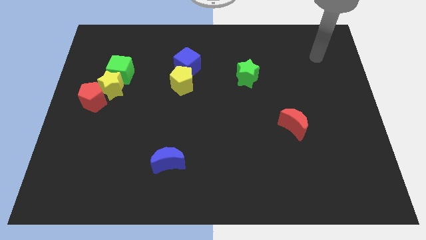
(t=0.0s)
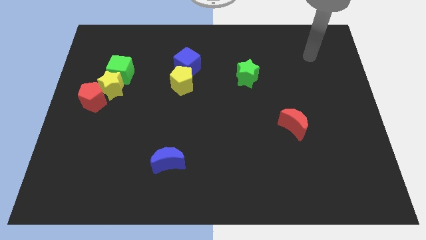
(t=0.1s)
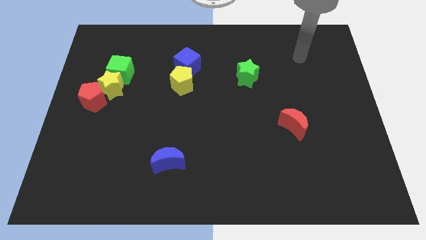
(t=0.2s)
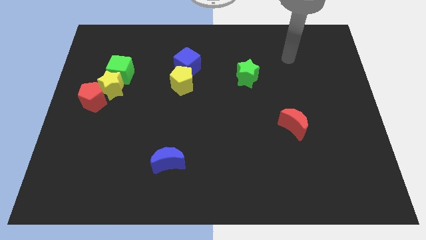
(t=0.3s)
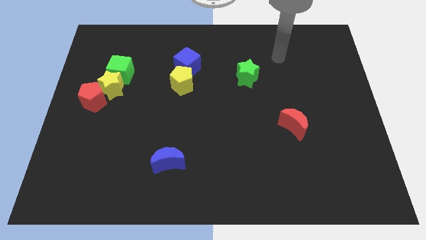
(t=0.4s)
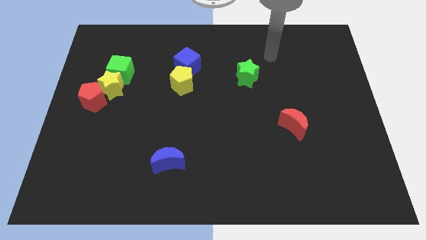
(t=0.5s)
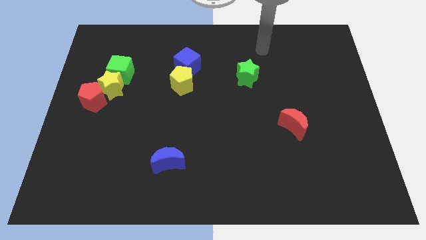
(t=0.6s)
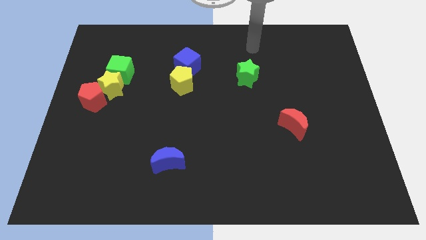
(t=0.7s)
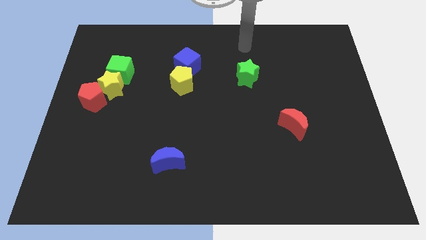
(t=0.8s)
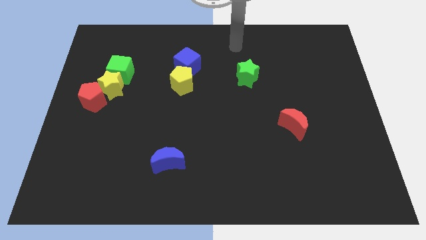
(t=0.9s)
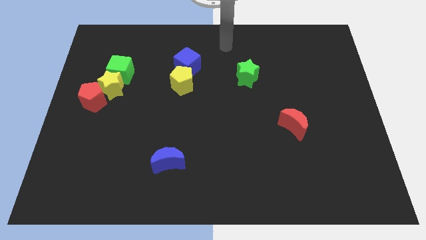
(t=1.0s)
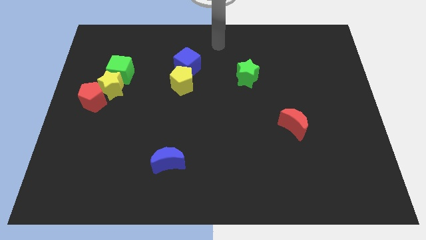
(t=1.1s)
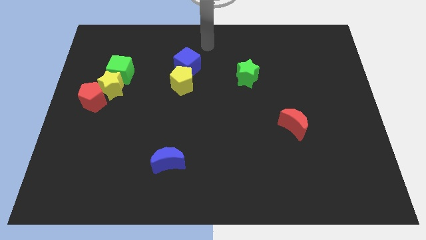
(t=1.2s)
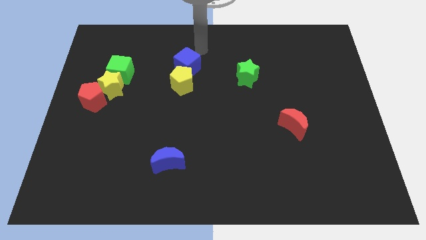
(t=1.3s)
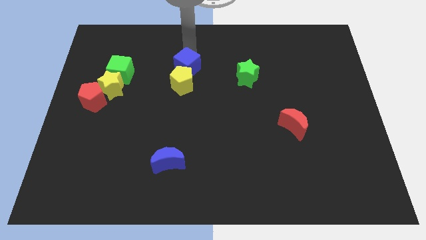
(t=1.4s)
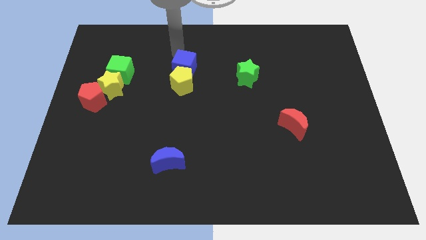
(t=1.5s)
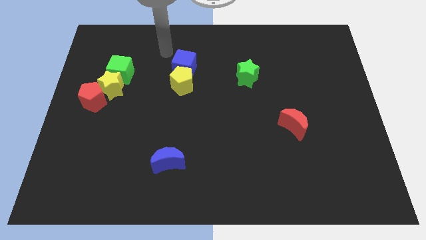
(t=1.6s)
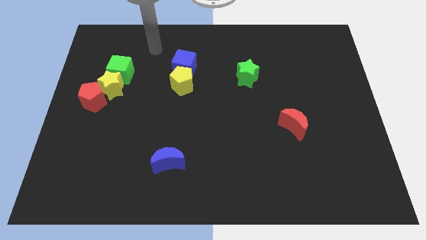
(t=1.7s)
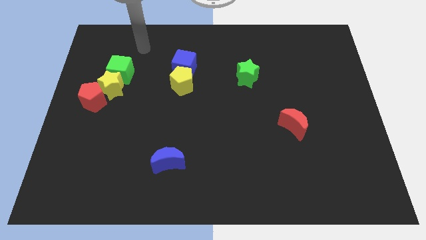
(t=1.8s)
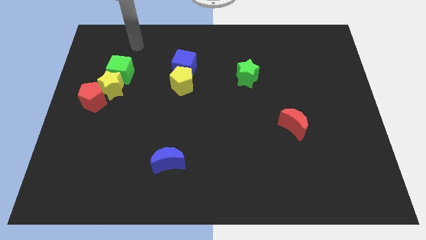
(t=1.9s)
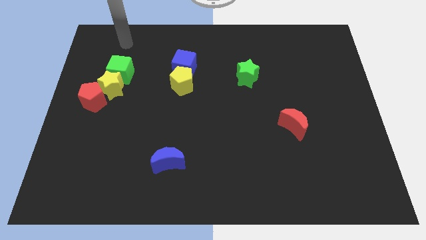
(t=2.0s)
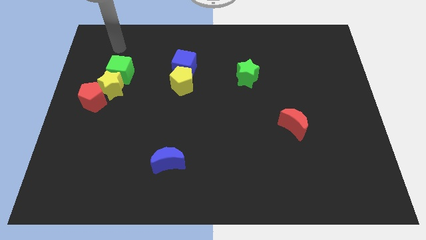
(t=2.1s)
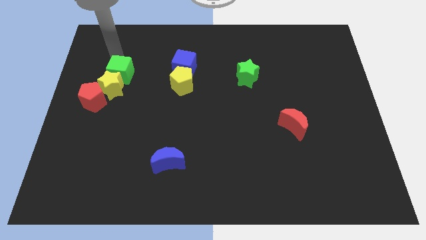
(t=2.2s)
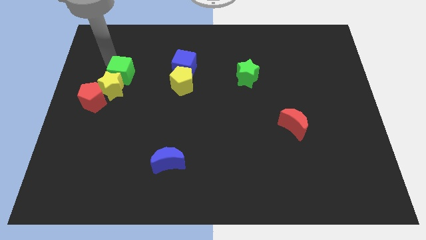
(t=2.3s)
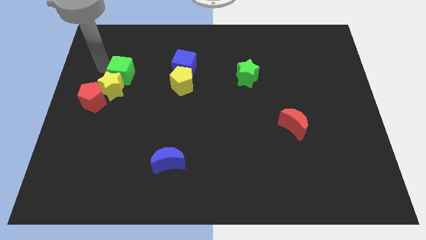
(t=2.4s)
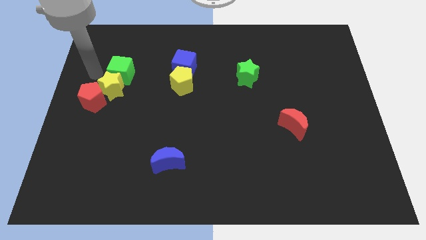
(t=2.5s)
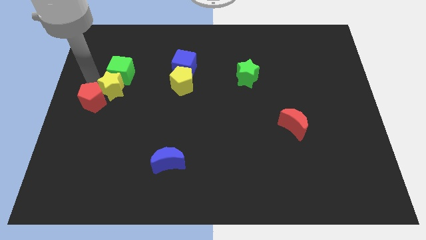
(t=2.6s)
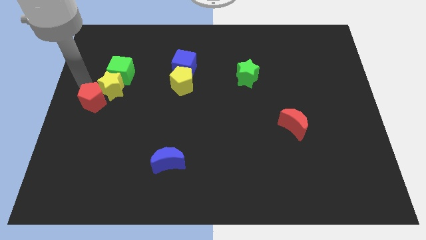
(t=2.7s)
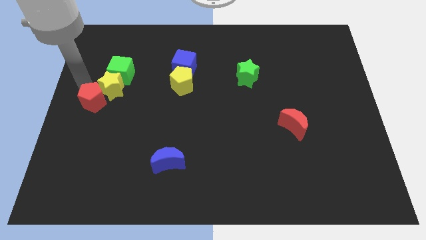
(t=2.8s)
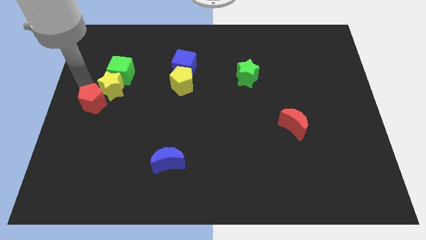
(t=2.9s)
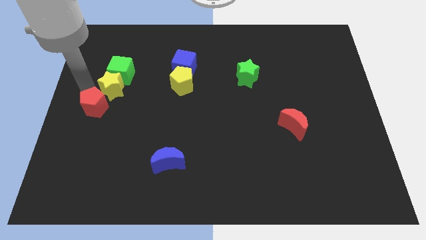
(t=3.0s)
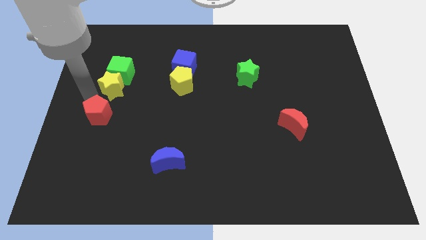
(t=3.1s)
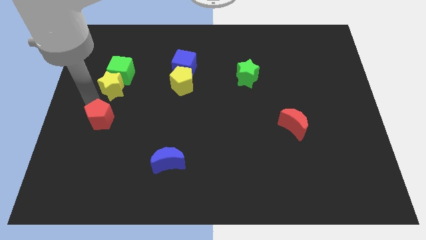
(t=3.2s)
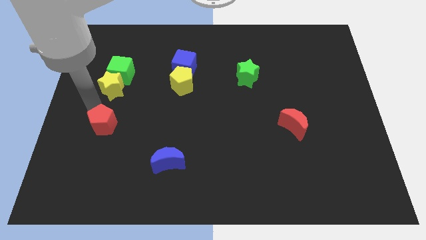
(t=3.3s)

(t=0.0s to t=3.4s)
slightly slide the red pentagon downwards and then right

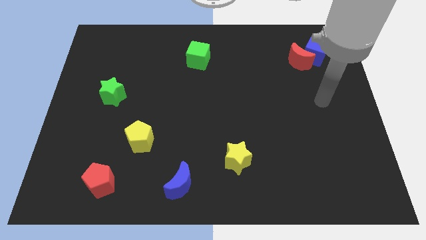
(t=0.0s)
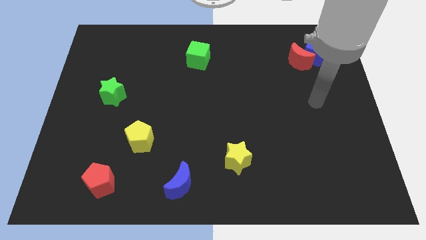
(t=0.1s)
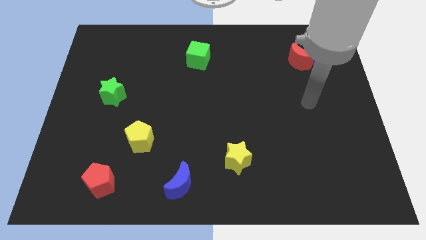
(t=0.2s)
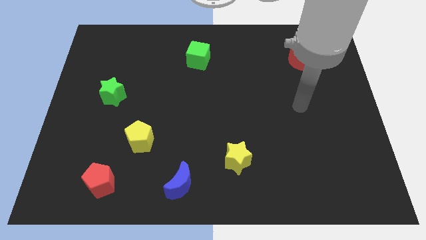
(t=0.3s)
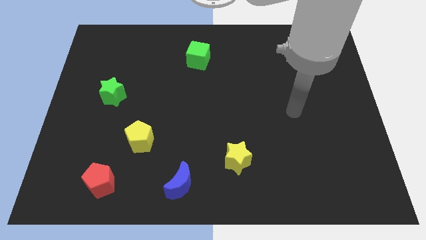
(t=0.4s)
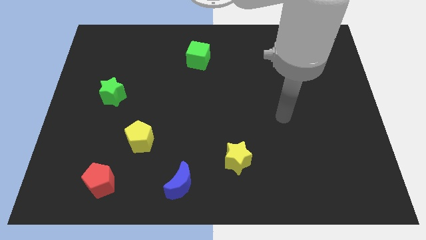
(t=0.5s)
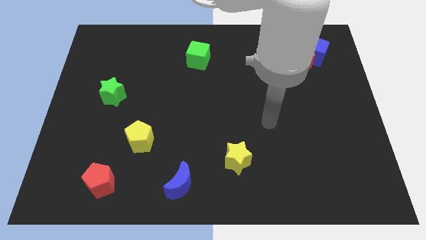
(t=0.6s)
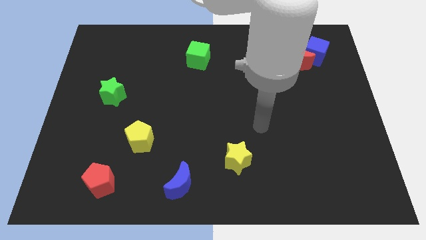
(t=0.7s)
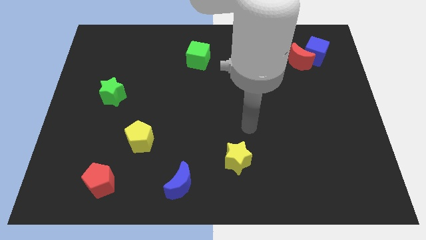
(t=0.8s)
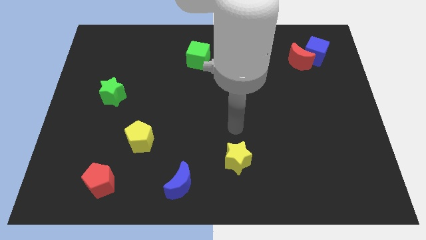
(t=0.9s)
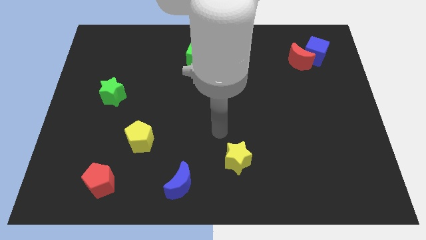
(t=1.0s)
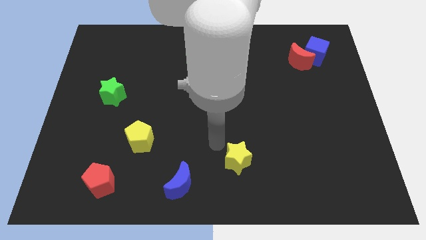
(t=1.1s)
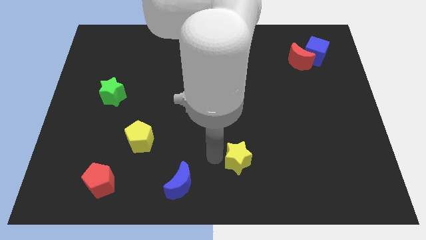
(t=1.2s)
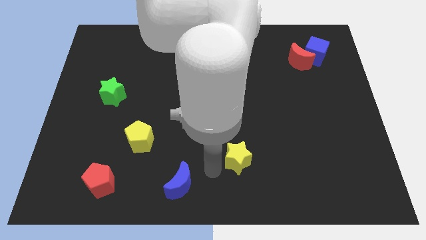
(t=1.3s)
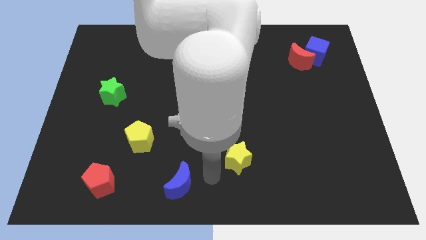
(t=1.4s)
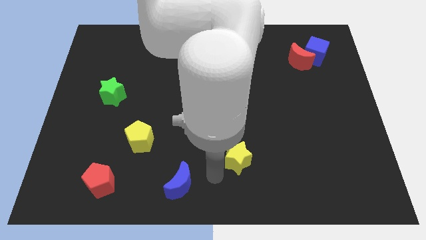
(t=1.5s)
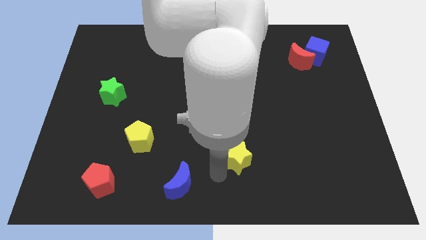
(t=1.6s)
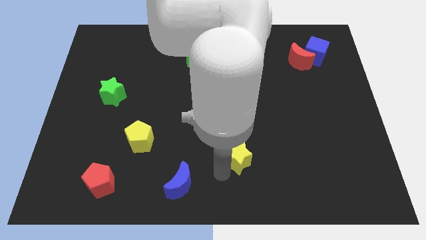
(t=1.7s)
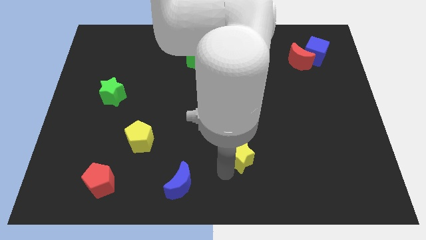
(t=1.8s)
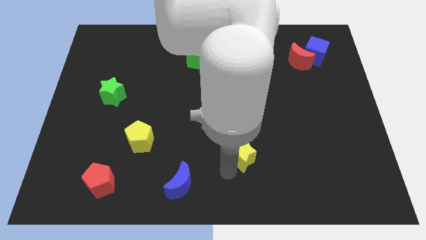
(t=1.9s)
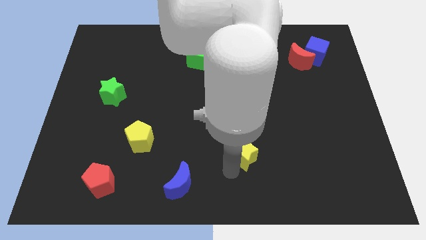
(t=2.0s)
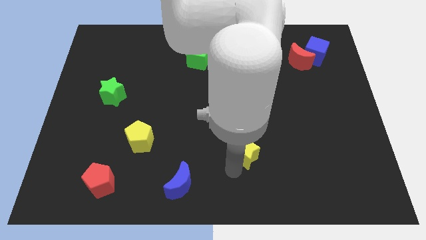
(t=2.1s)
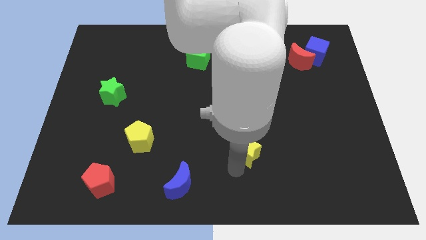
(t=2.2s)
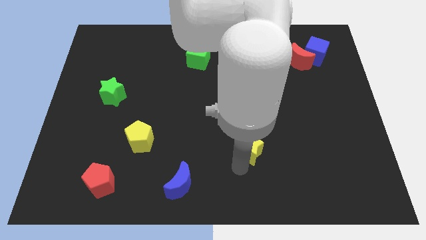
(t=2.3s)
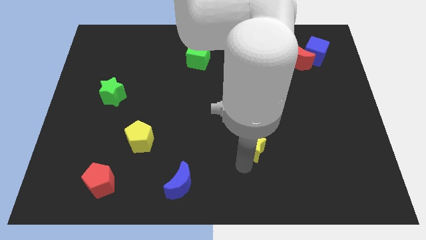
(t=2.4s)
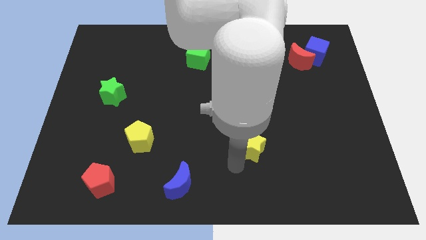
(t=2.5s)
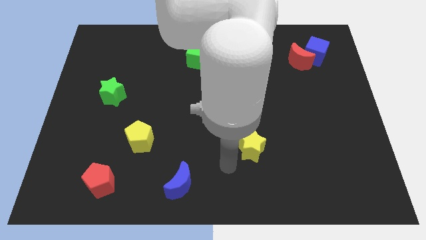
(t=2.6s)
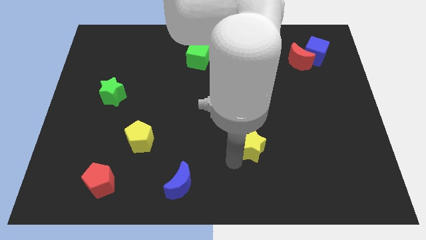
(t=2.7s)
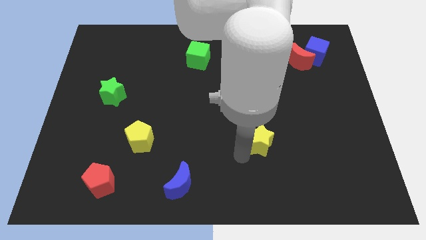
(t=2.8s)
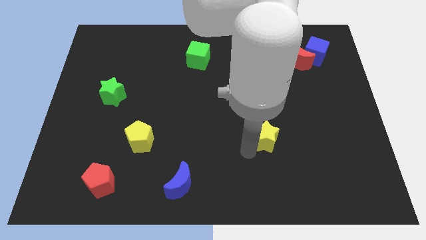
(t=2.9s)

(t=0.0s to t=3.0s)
push the yellow star slightly up and to the right

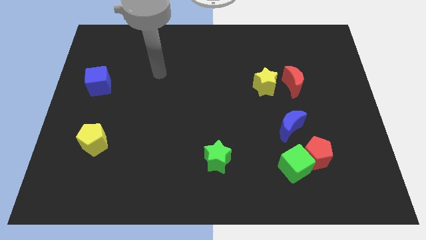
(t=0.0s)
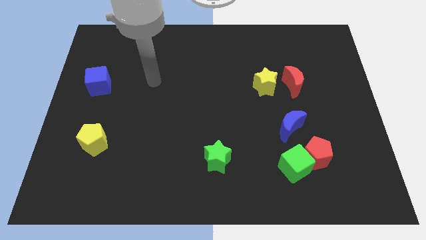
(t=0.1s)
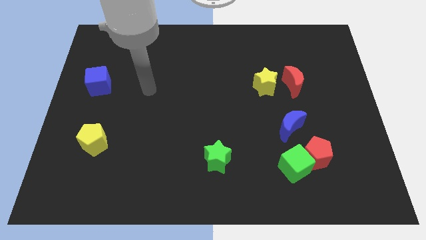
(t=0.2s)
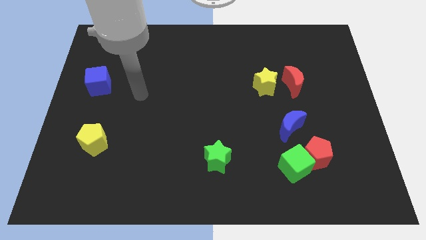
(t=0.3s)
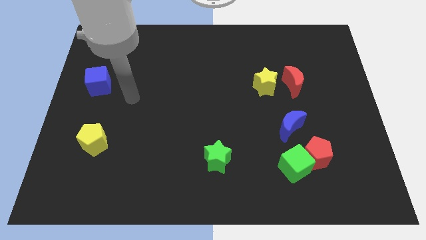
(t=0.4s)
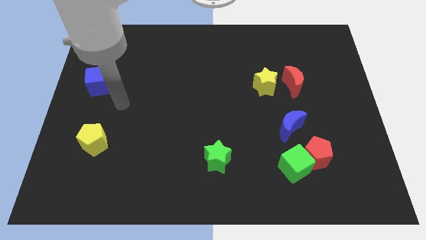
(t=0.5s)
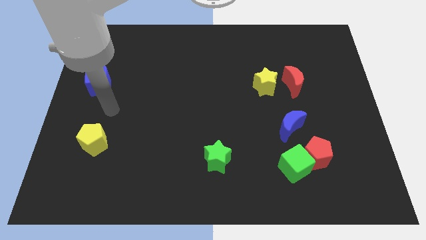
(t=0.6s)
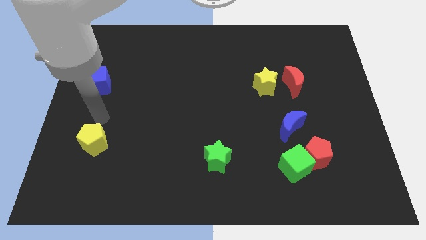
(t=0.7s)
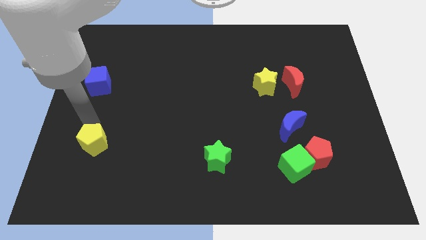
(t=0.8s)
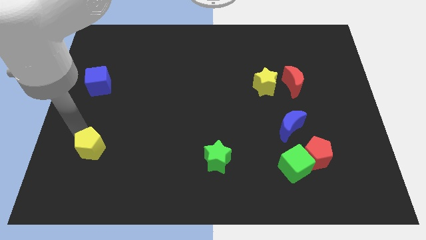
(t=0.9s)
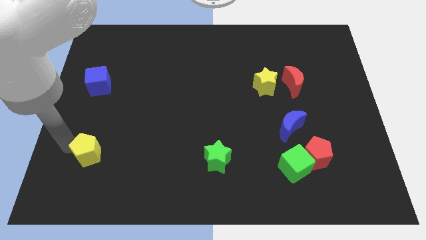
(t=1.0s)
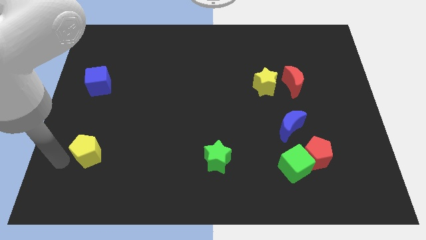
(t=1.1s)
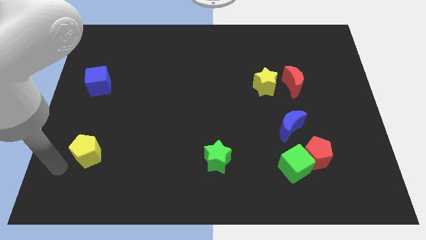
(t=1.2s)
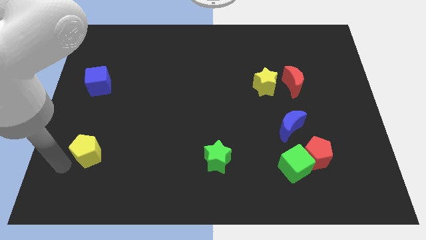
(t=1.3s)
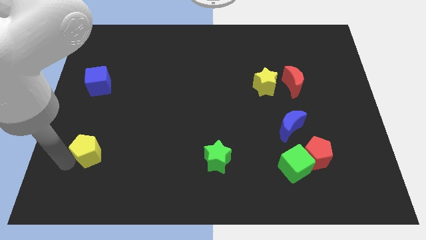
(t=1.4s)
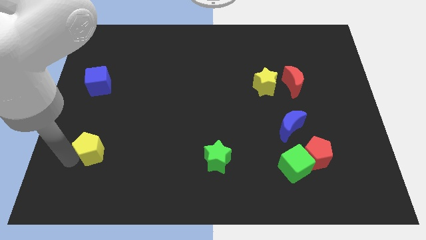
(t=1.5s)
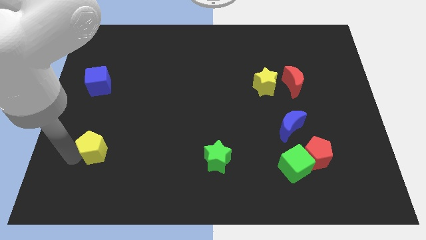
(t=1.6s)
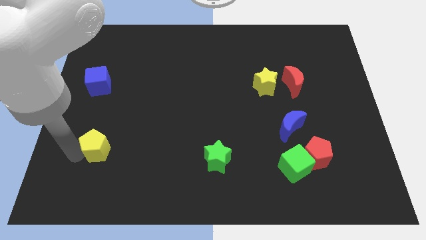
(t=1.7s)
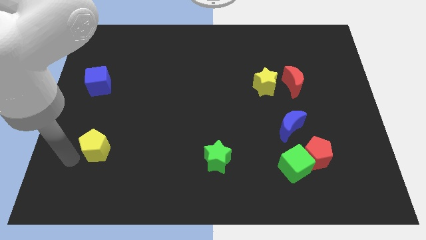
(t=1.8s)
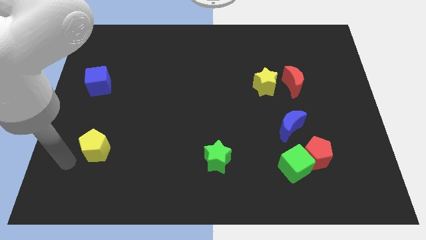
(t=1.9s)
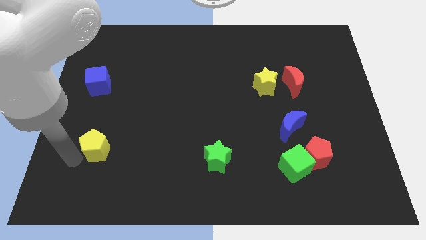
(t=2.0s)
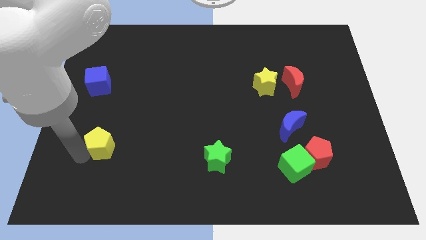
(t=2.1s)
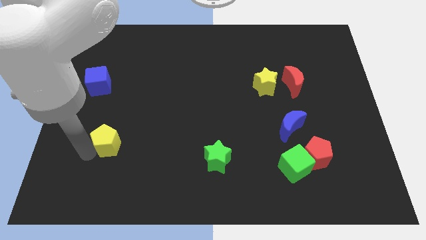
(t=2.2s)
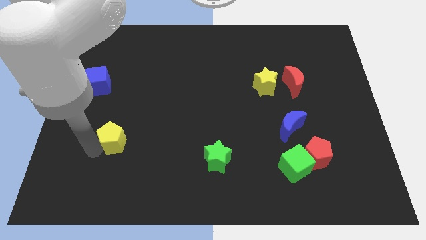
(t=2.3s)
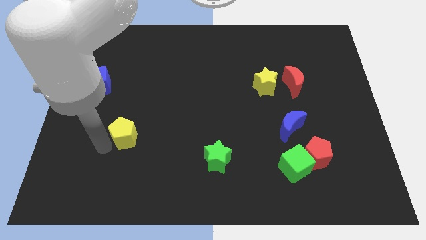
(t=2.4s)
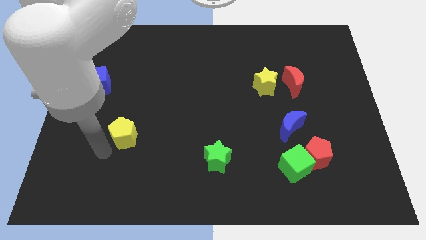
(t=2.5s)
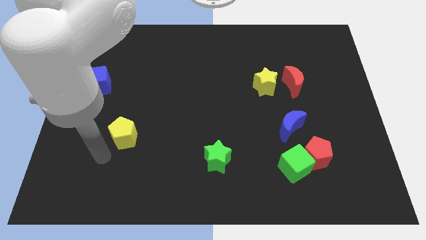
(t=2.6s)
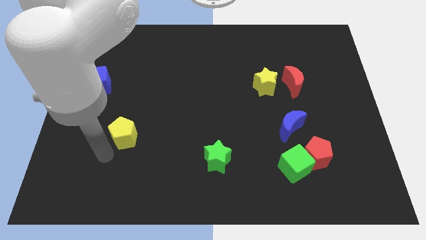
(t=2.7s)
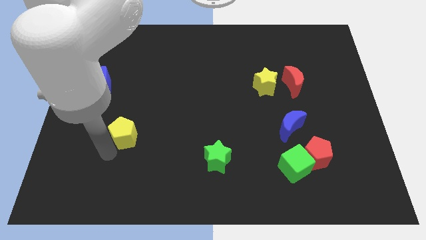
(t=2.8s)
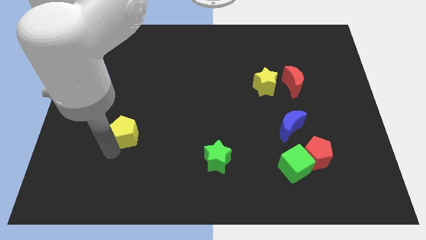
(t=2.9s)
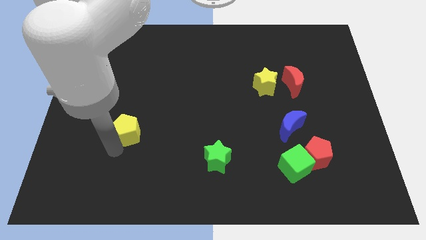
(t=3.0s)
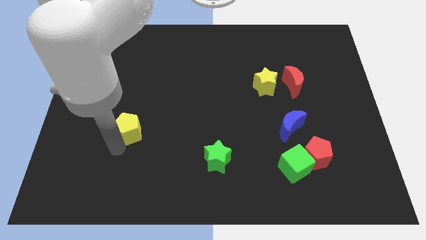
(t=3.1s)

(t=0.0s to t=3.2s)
move the yellow pentagon up and right diagonally slightly
